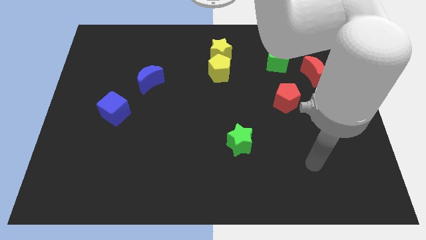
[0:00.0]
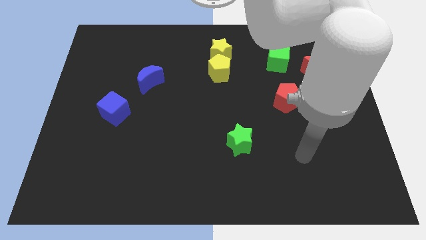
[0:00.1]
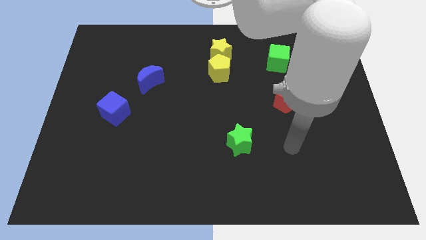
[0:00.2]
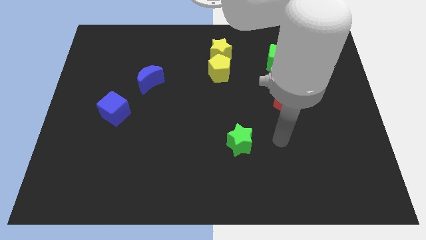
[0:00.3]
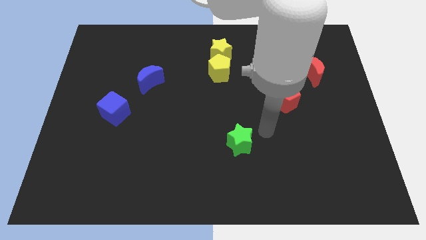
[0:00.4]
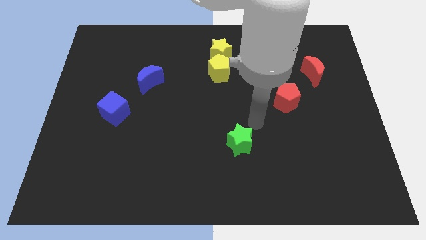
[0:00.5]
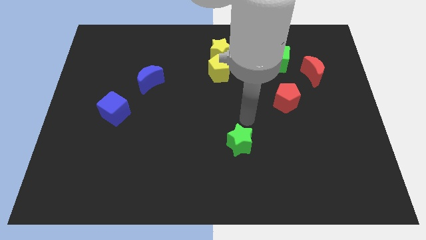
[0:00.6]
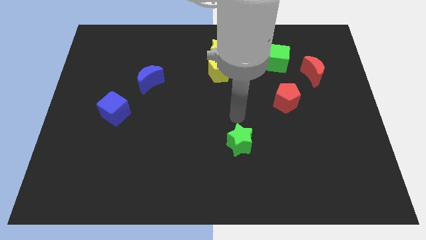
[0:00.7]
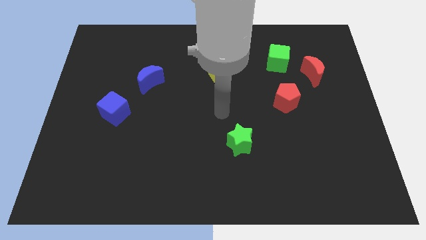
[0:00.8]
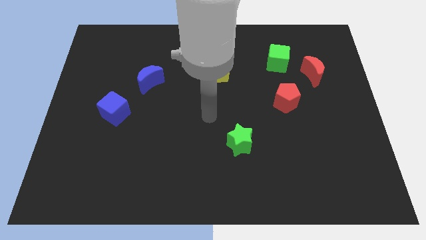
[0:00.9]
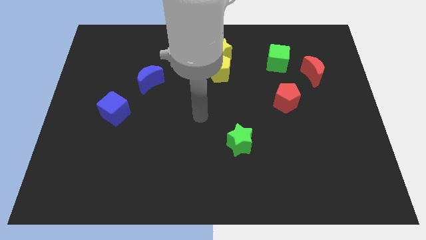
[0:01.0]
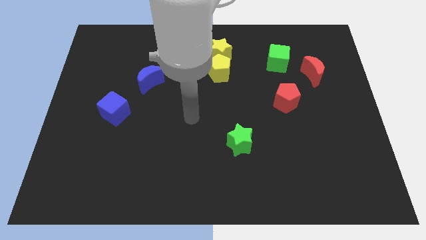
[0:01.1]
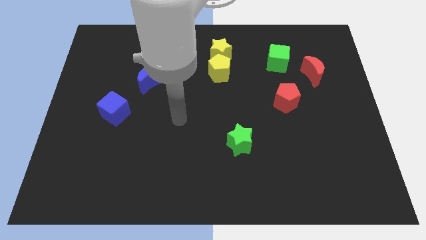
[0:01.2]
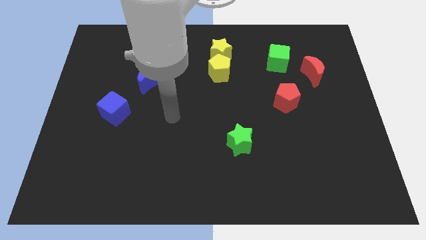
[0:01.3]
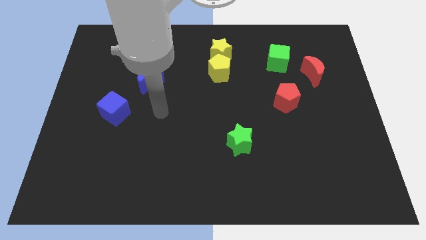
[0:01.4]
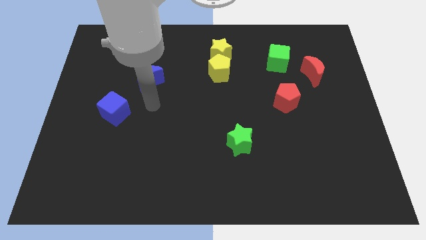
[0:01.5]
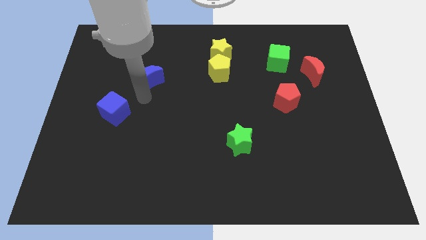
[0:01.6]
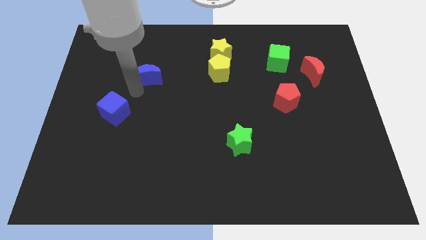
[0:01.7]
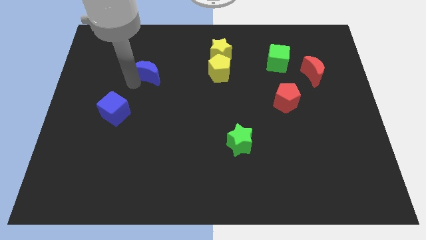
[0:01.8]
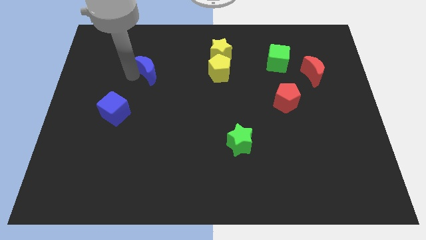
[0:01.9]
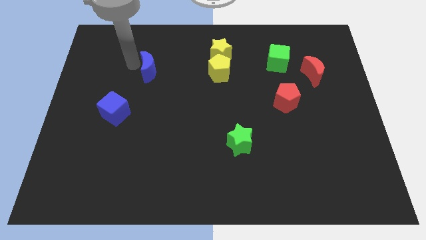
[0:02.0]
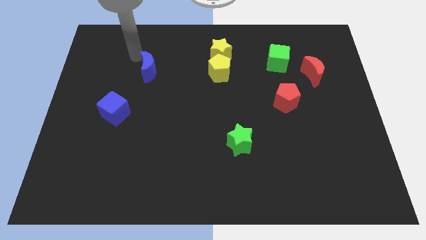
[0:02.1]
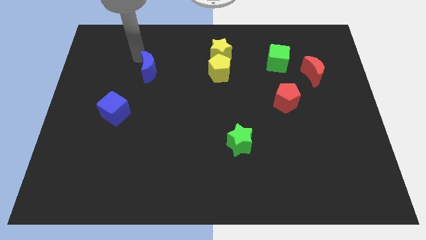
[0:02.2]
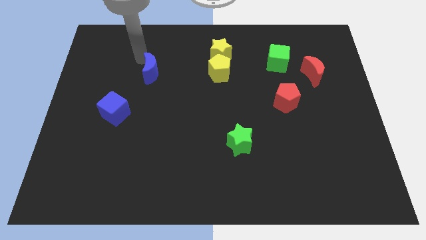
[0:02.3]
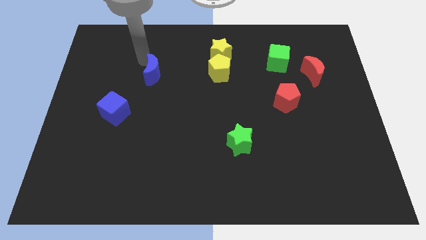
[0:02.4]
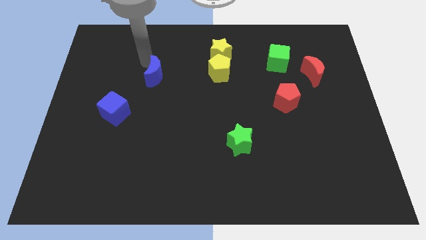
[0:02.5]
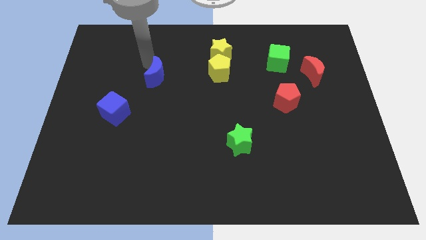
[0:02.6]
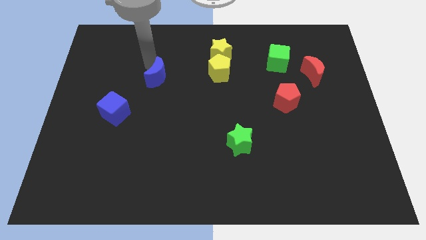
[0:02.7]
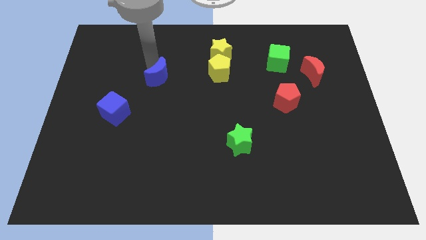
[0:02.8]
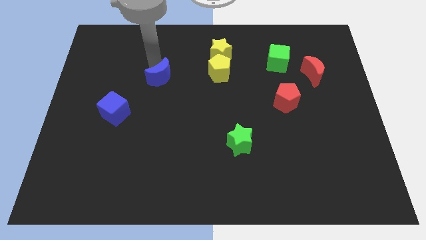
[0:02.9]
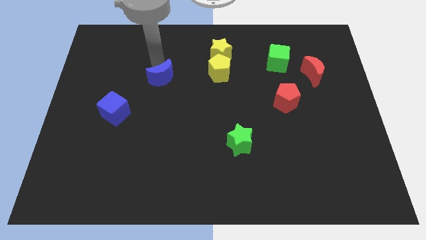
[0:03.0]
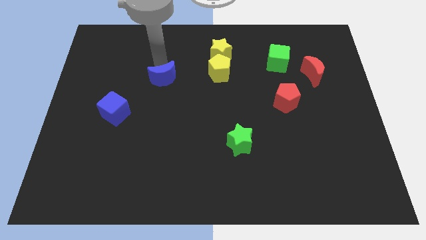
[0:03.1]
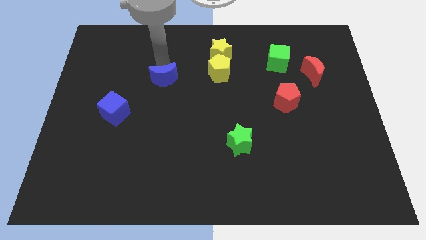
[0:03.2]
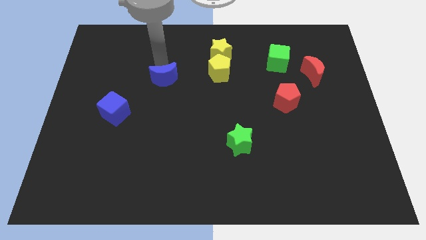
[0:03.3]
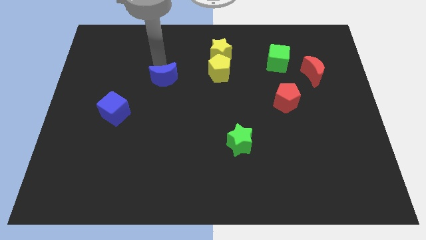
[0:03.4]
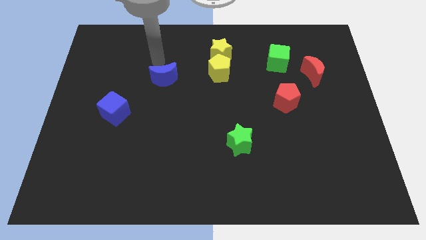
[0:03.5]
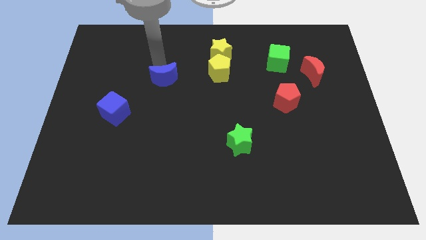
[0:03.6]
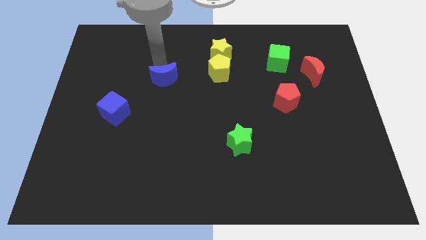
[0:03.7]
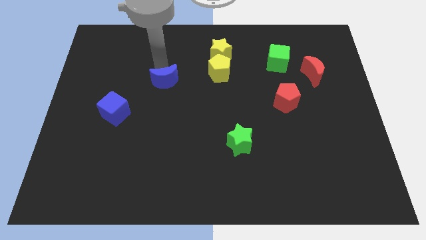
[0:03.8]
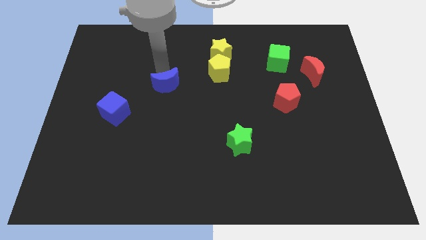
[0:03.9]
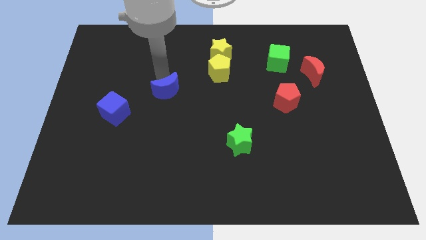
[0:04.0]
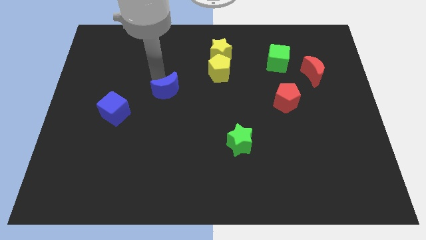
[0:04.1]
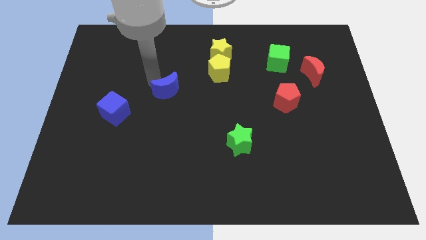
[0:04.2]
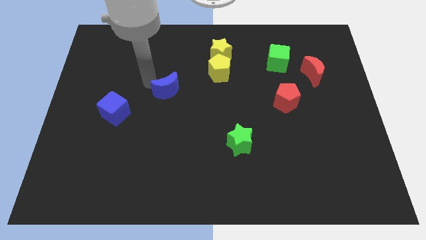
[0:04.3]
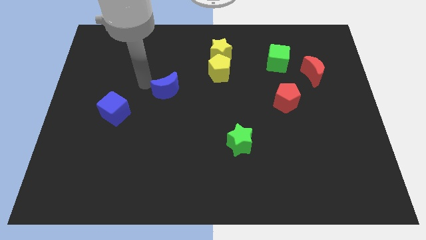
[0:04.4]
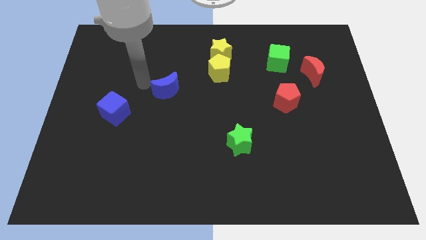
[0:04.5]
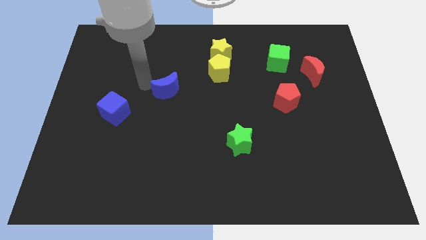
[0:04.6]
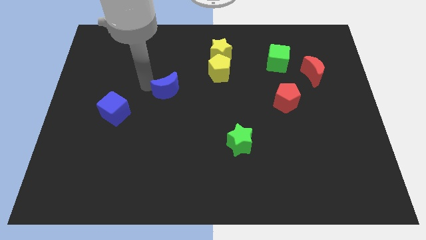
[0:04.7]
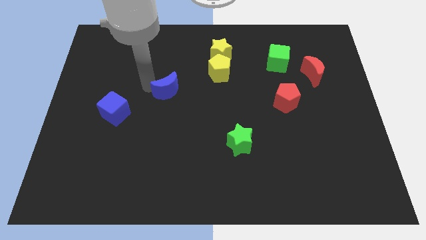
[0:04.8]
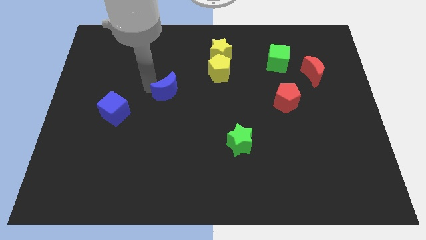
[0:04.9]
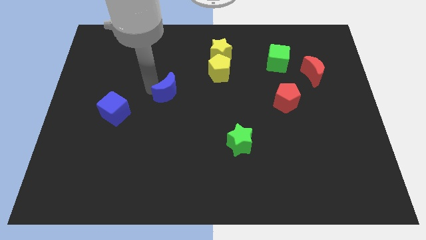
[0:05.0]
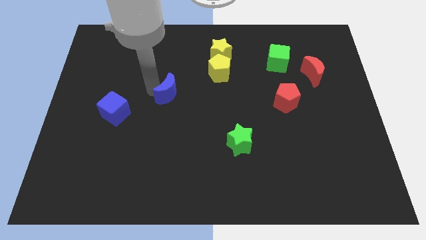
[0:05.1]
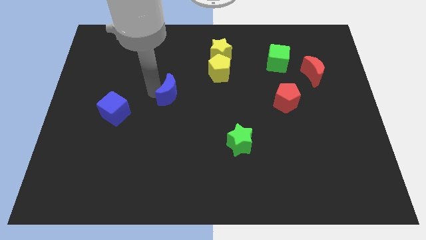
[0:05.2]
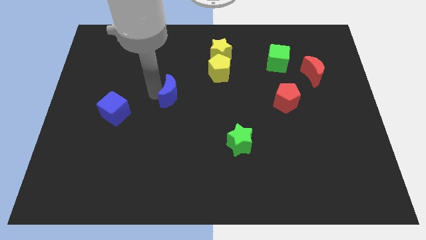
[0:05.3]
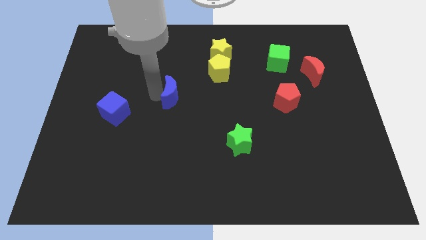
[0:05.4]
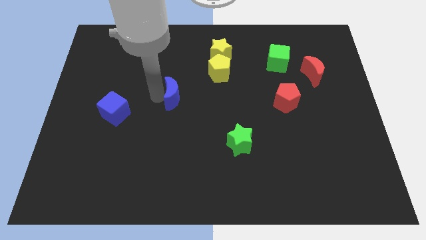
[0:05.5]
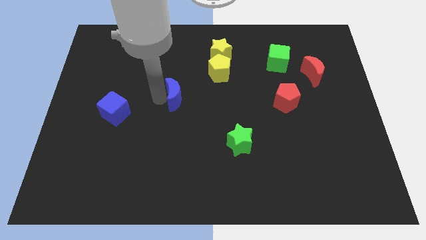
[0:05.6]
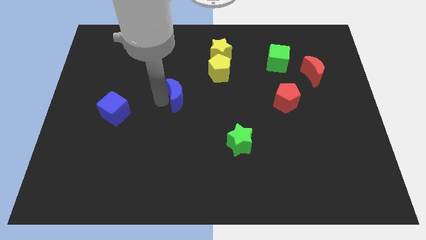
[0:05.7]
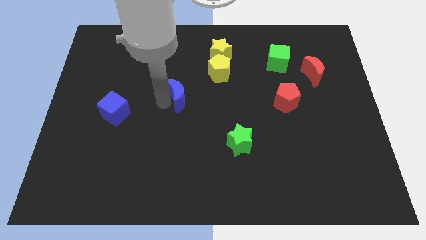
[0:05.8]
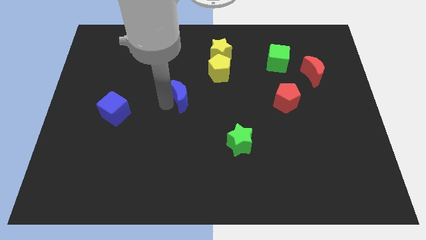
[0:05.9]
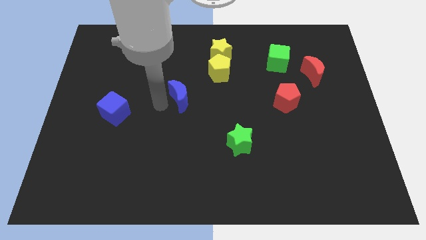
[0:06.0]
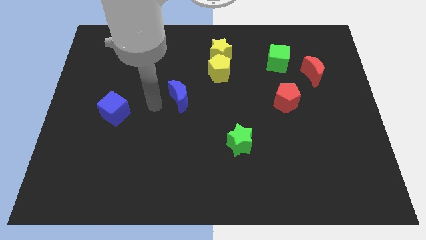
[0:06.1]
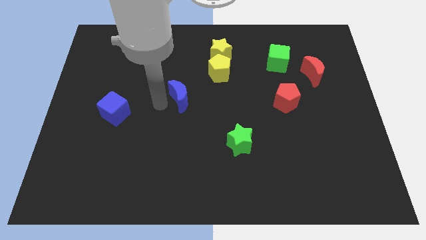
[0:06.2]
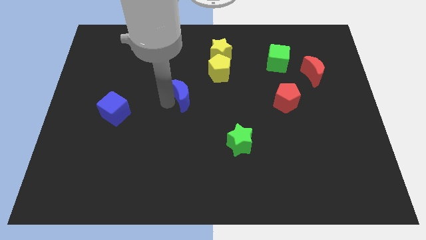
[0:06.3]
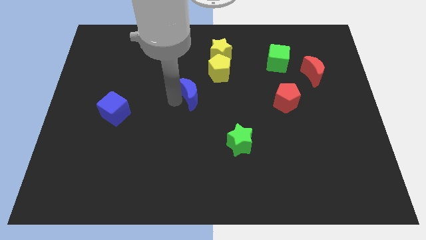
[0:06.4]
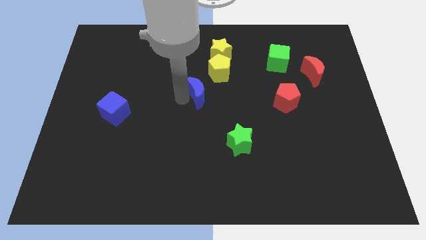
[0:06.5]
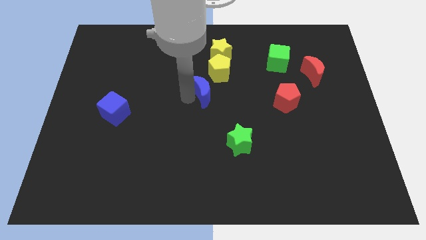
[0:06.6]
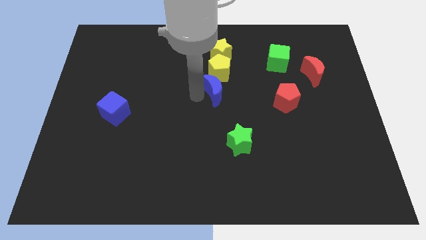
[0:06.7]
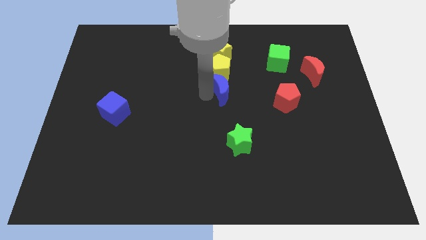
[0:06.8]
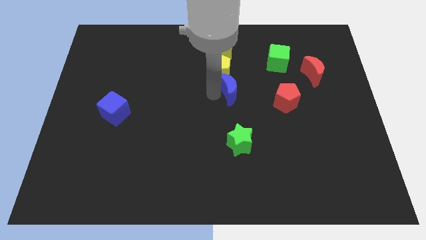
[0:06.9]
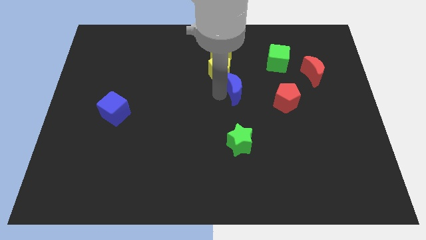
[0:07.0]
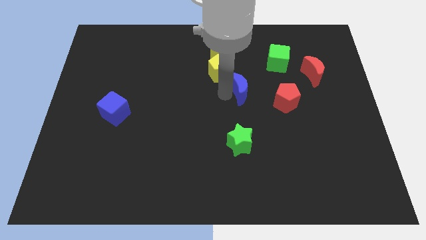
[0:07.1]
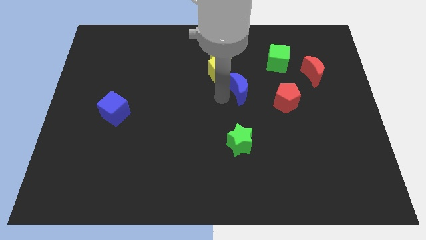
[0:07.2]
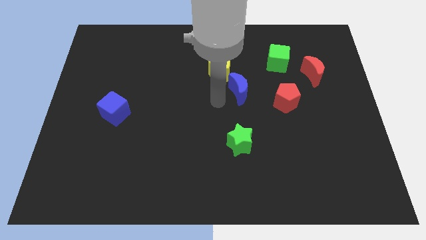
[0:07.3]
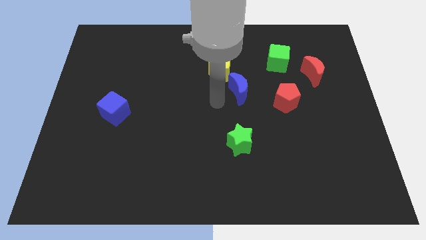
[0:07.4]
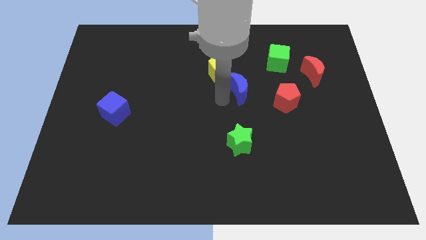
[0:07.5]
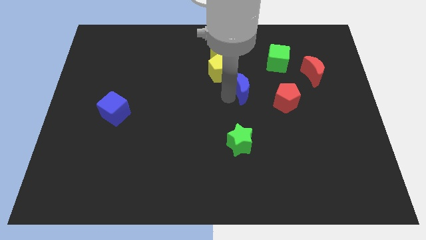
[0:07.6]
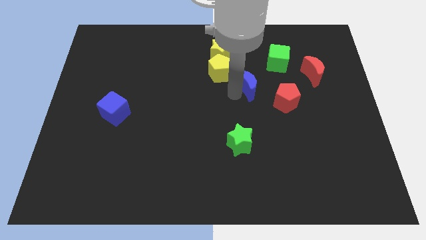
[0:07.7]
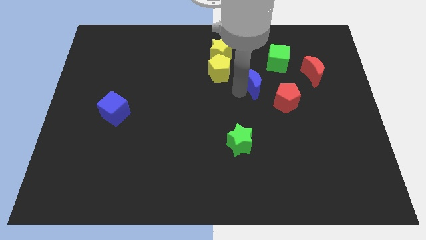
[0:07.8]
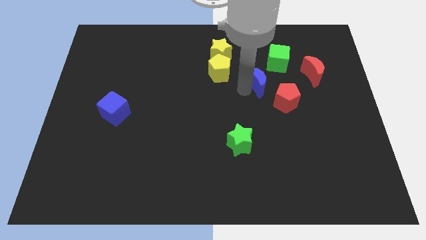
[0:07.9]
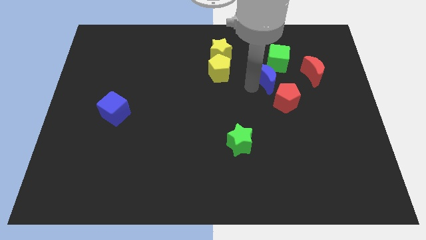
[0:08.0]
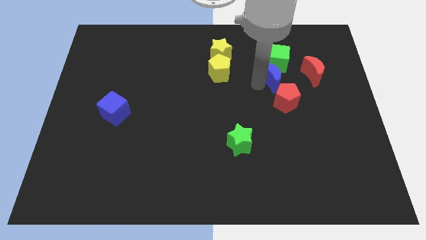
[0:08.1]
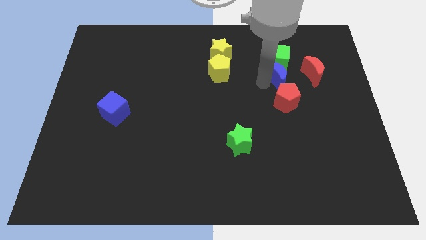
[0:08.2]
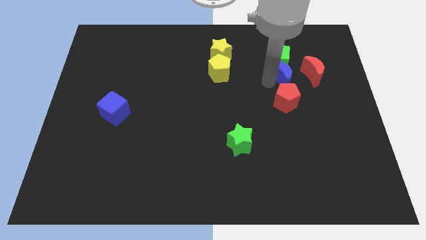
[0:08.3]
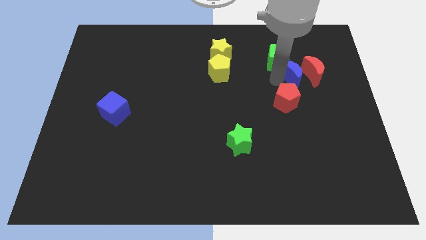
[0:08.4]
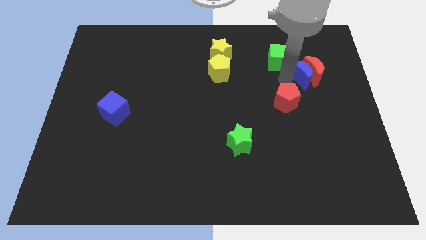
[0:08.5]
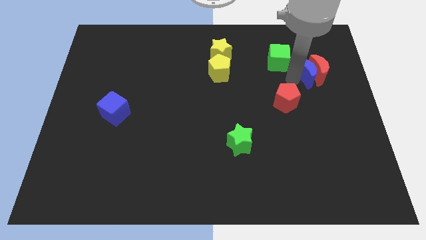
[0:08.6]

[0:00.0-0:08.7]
push the blue moon just right of the green cube
